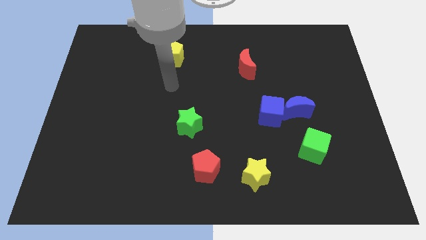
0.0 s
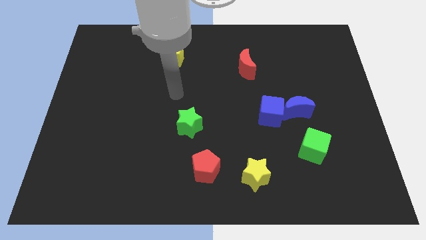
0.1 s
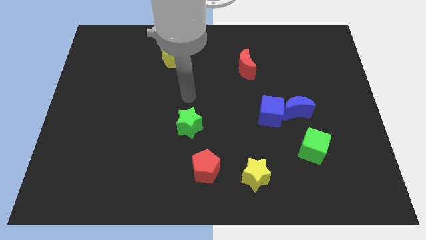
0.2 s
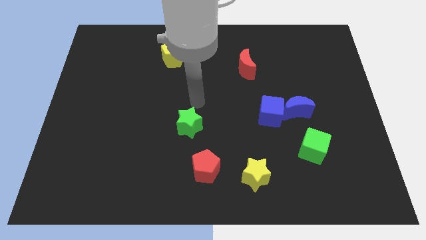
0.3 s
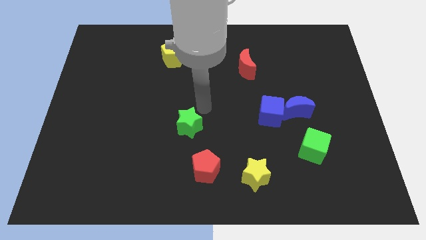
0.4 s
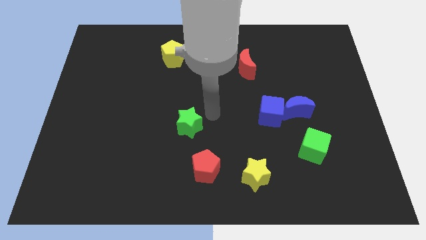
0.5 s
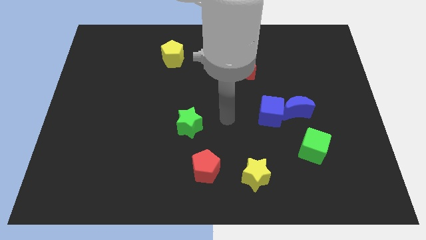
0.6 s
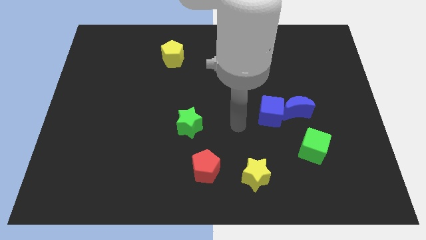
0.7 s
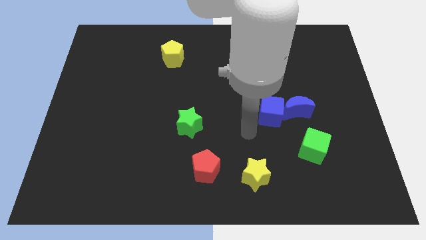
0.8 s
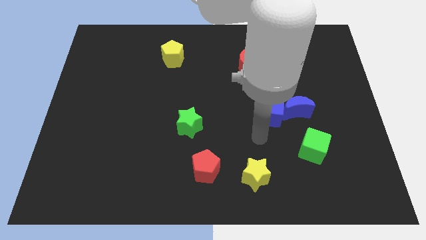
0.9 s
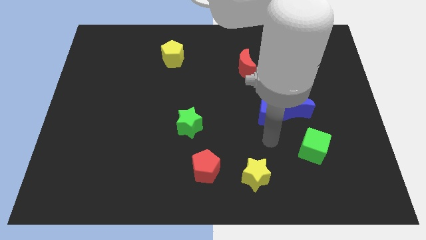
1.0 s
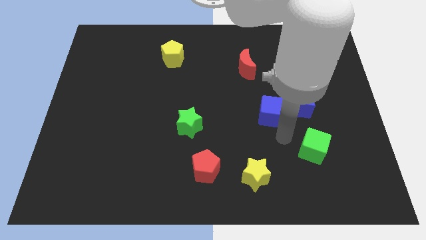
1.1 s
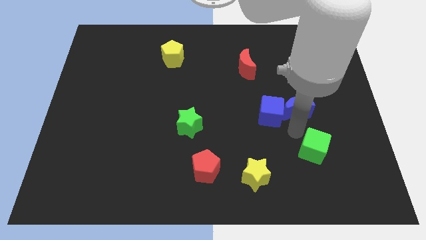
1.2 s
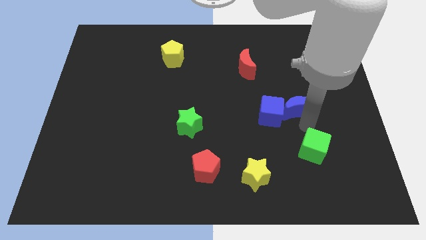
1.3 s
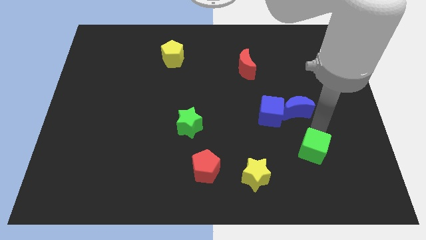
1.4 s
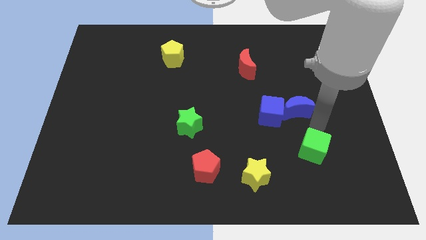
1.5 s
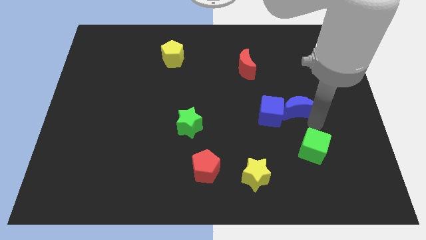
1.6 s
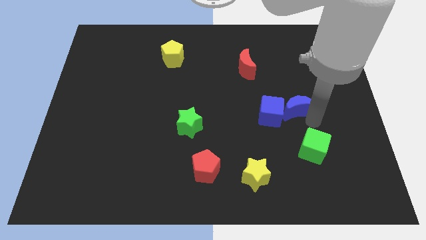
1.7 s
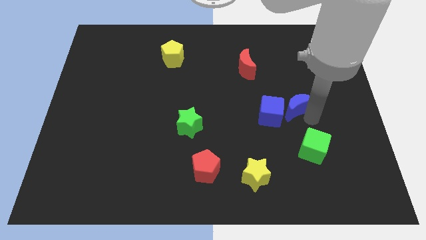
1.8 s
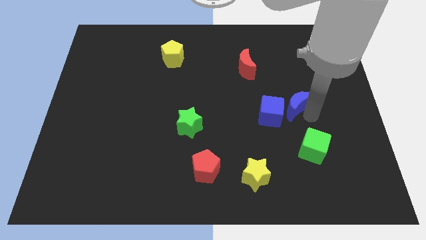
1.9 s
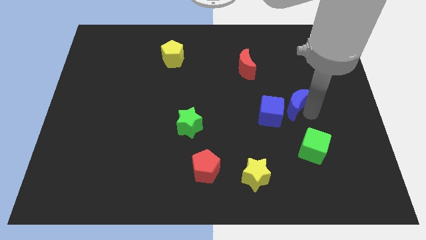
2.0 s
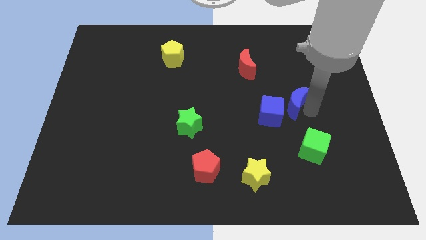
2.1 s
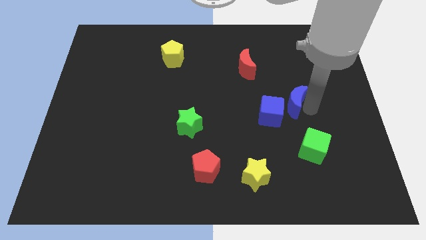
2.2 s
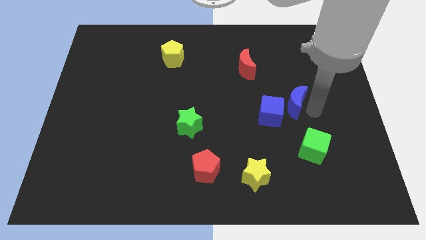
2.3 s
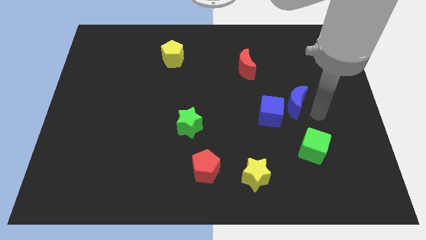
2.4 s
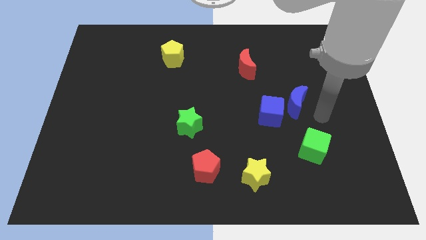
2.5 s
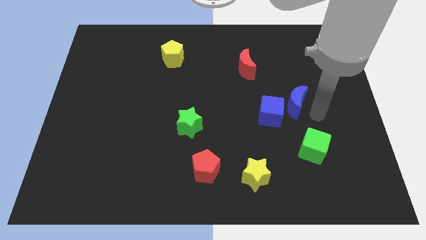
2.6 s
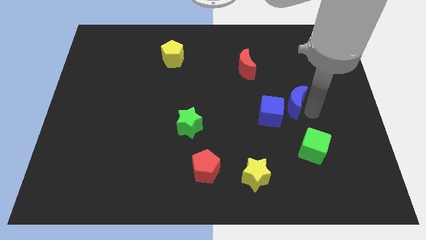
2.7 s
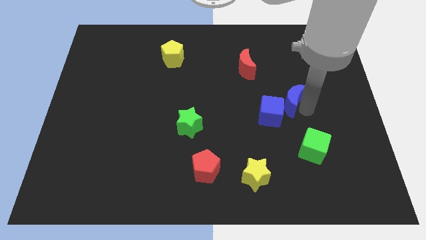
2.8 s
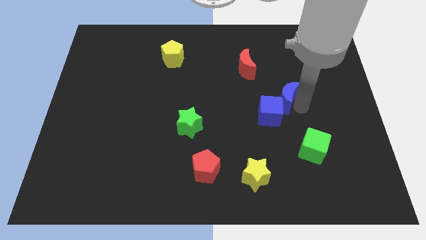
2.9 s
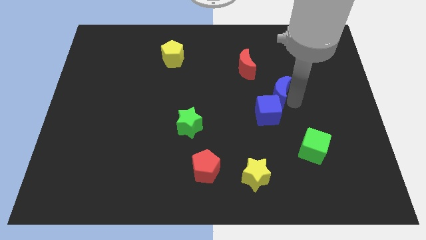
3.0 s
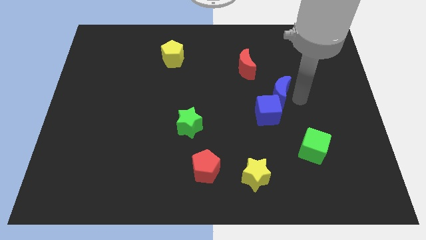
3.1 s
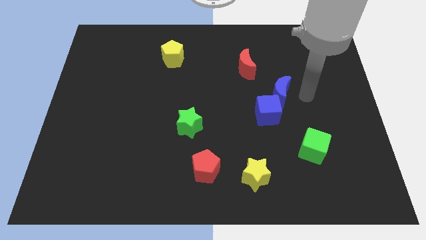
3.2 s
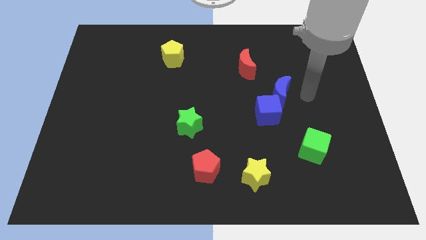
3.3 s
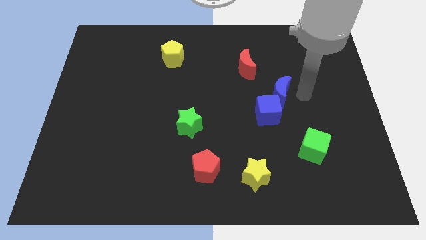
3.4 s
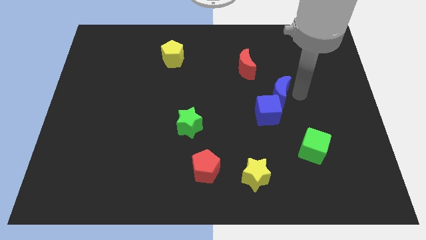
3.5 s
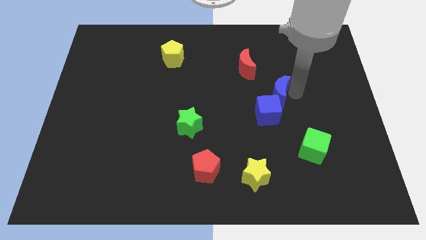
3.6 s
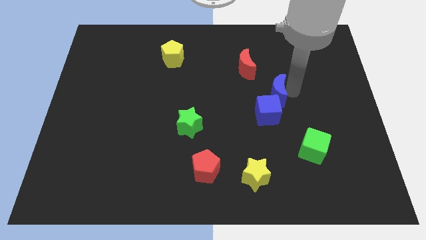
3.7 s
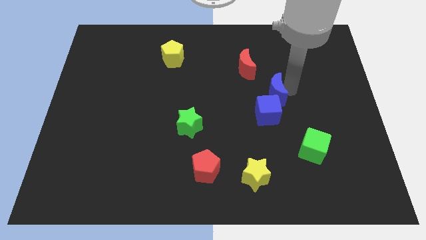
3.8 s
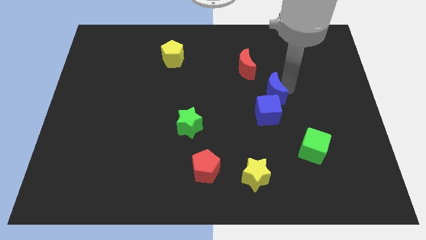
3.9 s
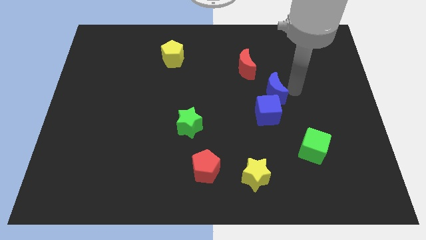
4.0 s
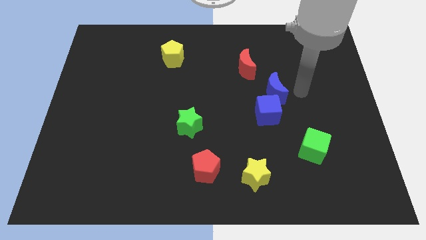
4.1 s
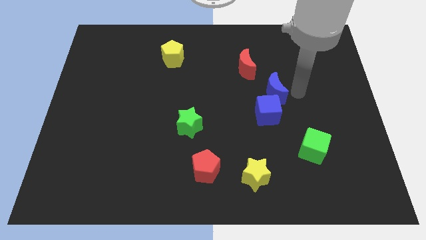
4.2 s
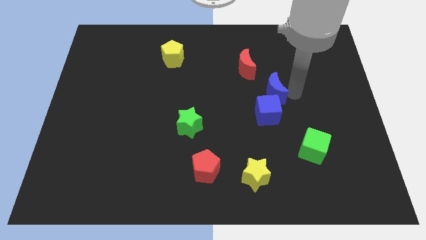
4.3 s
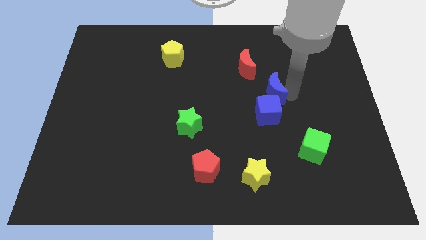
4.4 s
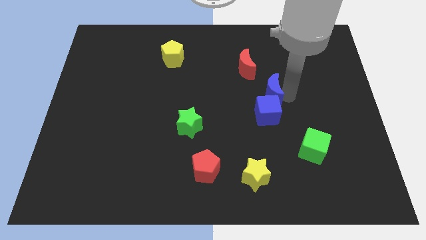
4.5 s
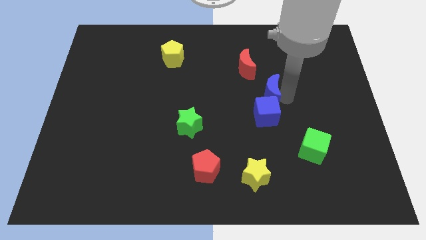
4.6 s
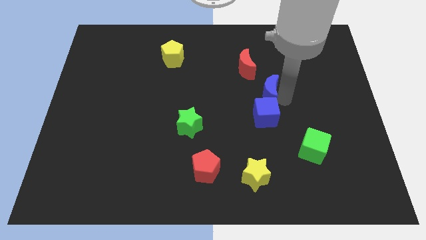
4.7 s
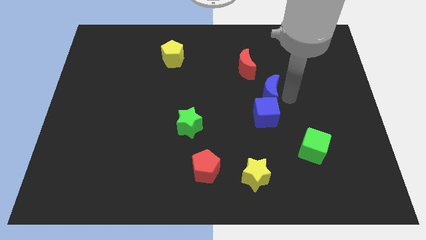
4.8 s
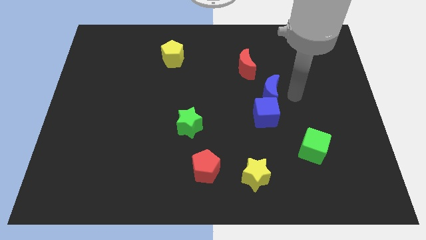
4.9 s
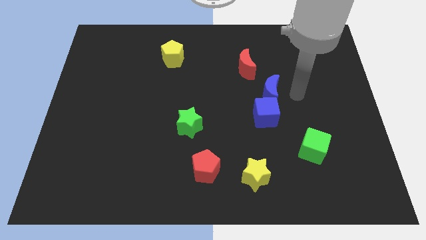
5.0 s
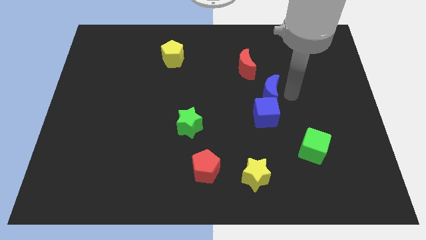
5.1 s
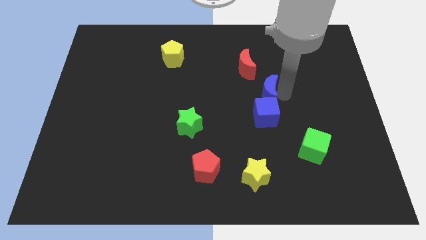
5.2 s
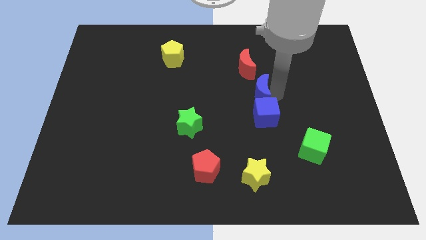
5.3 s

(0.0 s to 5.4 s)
put the blue moon to the center of the board
